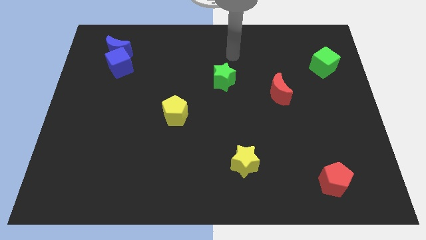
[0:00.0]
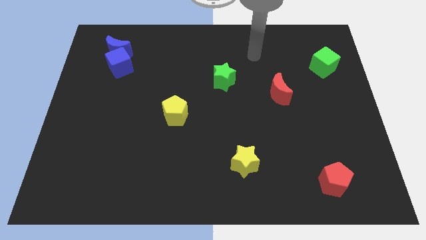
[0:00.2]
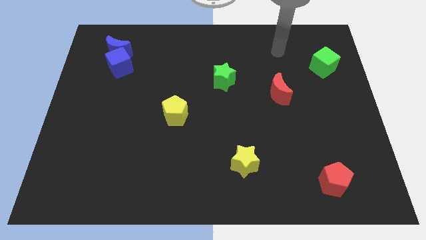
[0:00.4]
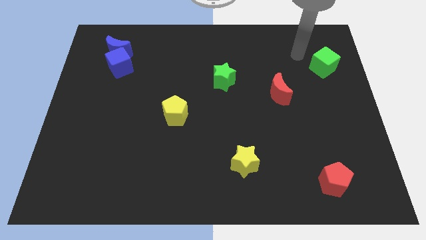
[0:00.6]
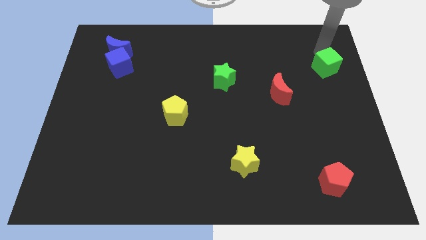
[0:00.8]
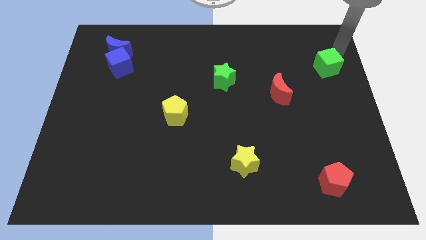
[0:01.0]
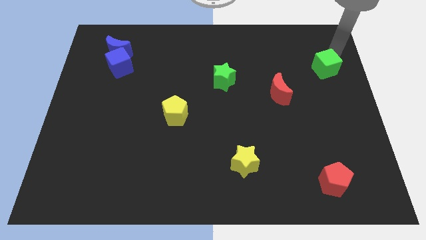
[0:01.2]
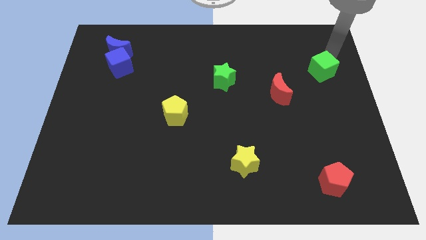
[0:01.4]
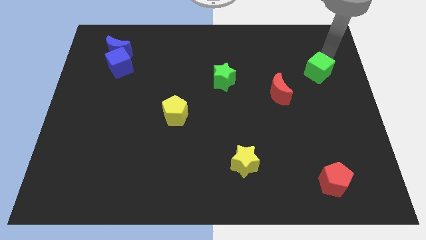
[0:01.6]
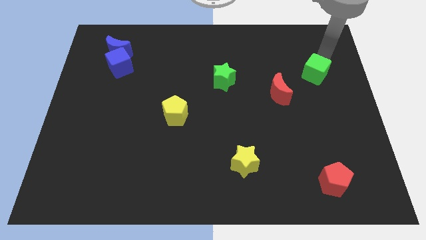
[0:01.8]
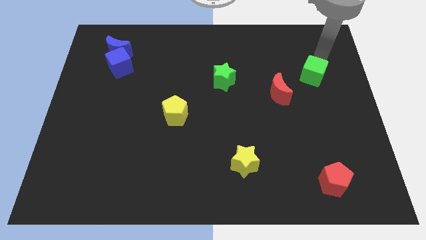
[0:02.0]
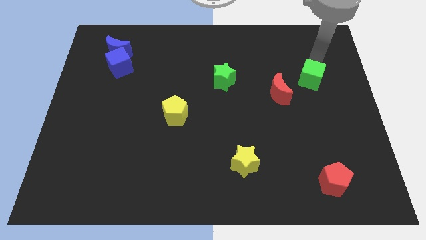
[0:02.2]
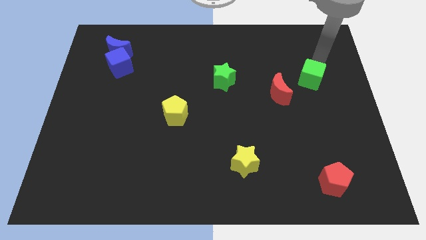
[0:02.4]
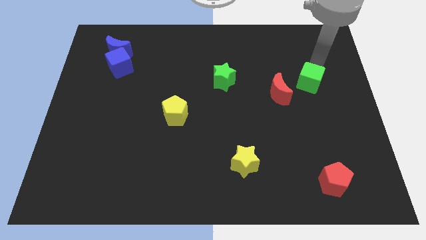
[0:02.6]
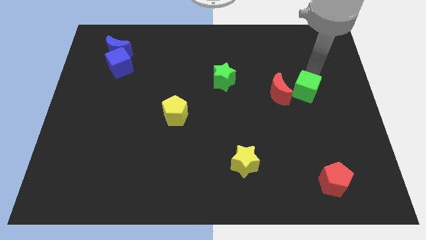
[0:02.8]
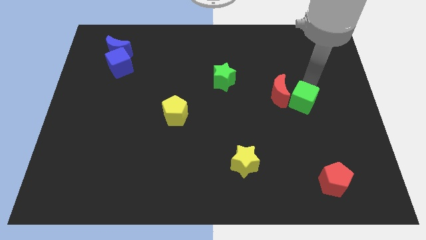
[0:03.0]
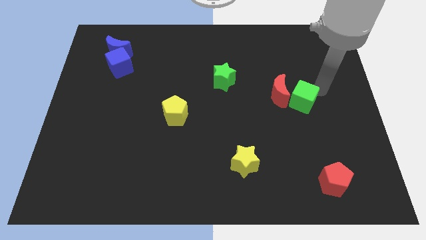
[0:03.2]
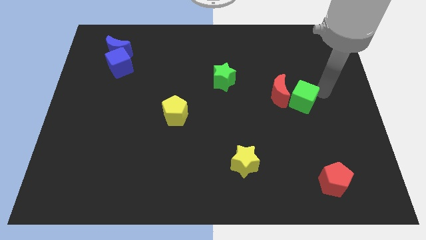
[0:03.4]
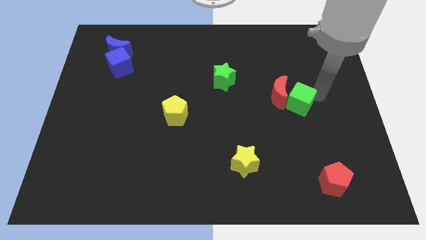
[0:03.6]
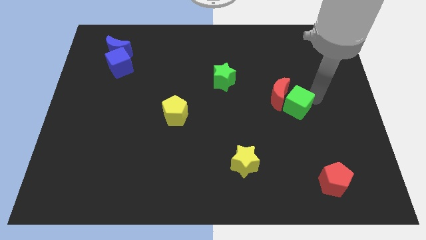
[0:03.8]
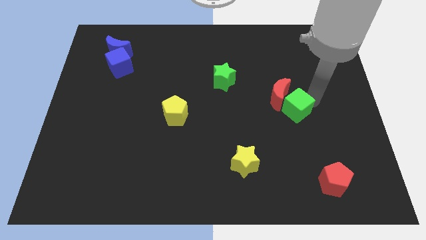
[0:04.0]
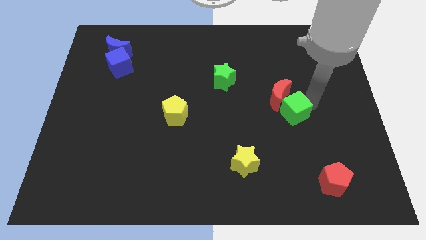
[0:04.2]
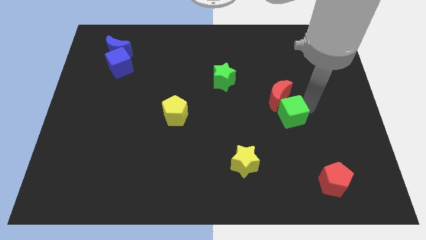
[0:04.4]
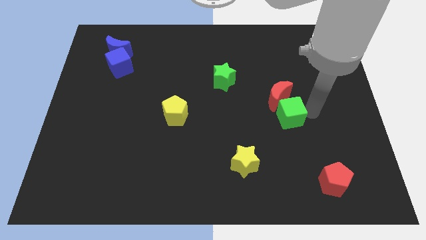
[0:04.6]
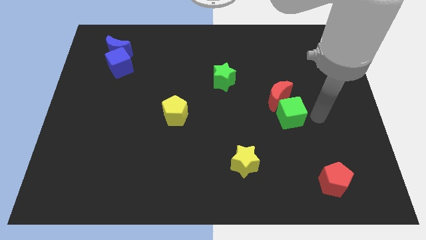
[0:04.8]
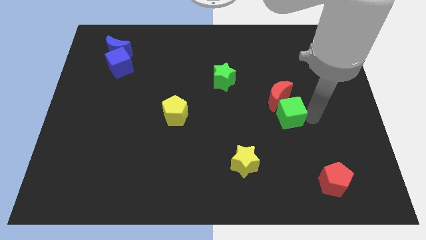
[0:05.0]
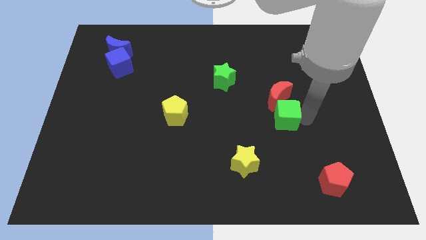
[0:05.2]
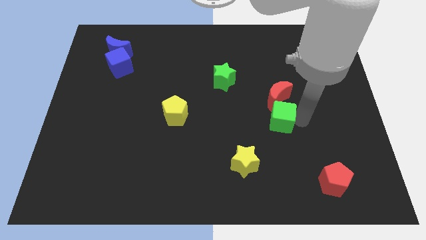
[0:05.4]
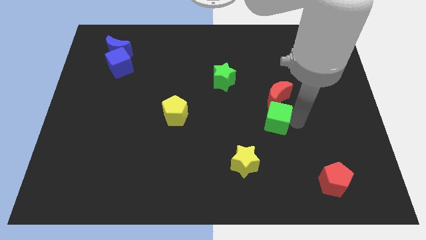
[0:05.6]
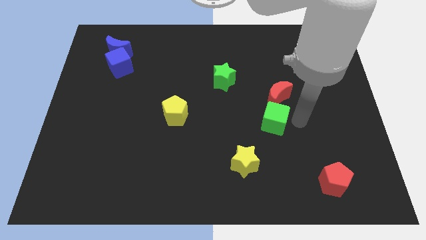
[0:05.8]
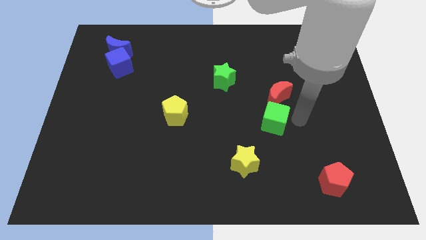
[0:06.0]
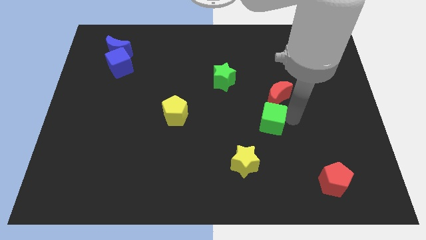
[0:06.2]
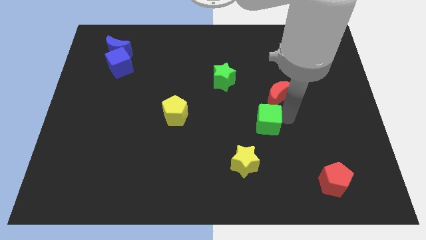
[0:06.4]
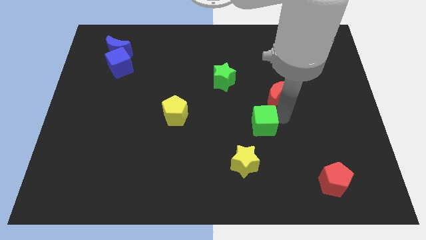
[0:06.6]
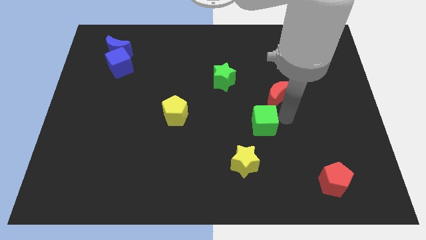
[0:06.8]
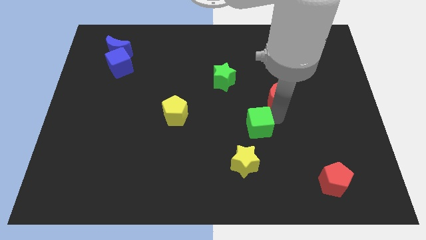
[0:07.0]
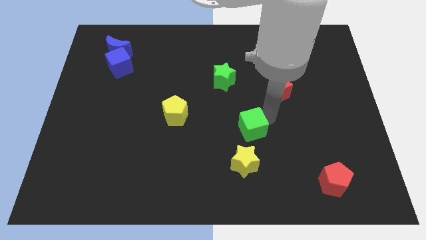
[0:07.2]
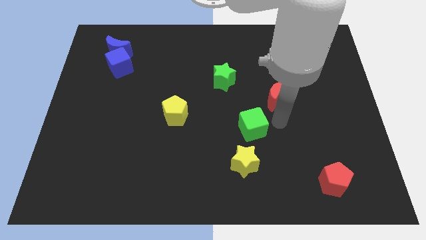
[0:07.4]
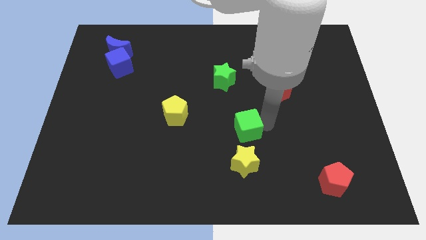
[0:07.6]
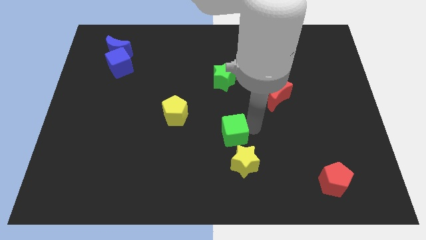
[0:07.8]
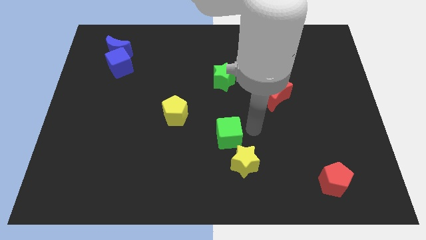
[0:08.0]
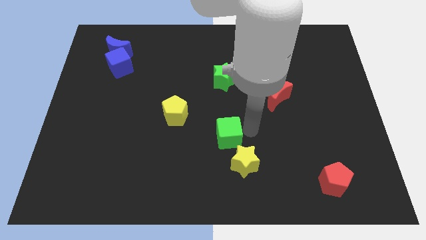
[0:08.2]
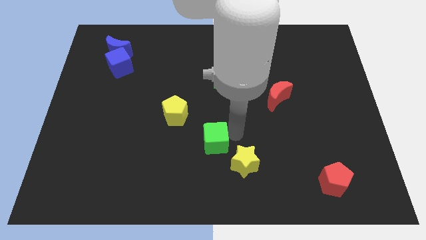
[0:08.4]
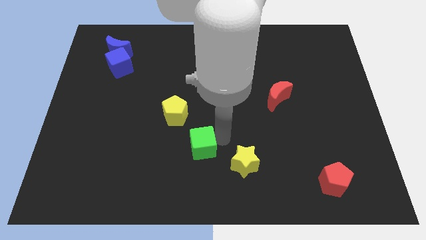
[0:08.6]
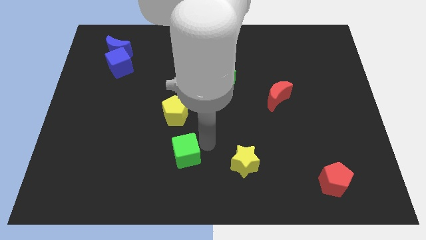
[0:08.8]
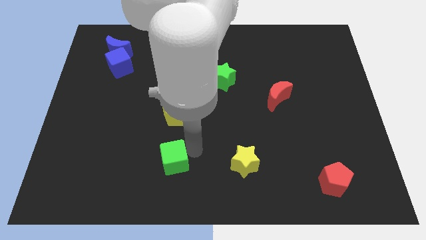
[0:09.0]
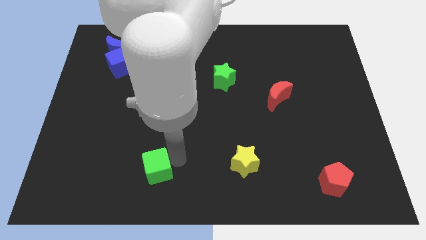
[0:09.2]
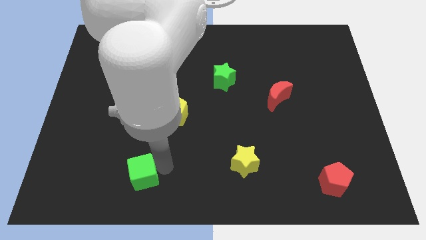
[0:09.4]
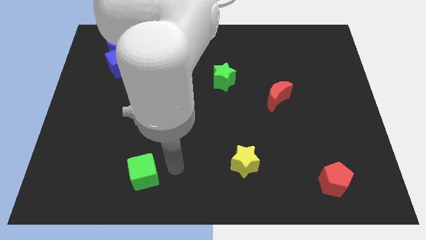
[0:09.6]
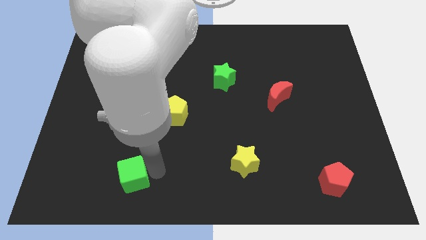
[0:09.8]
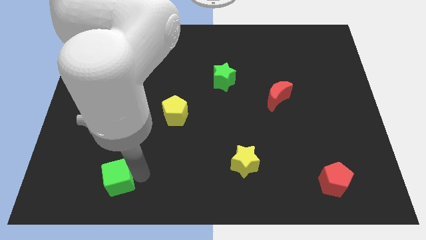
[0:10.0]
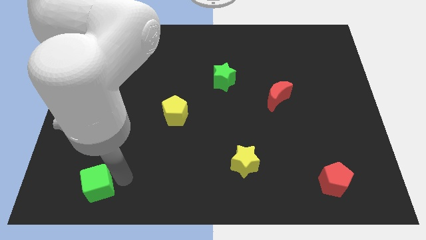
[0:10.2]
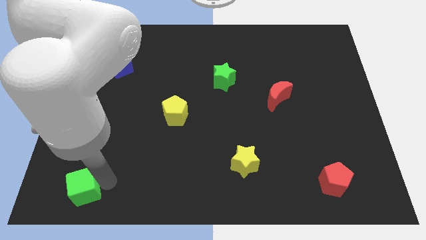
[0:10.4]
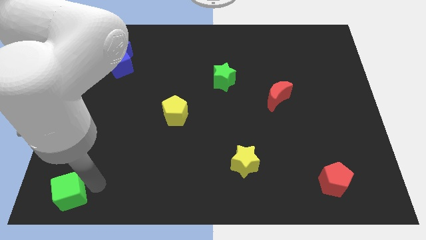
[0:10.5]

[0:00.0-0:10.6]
put the green cube to the bottom left
